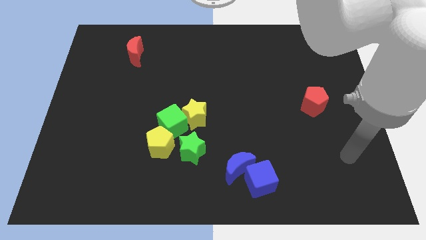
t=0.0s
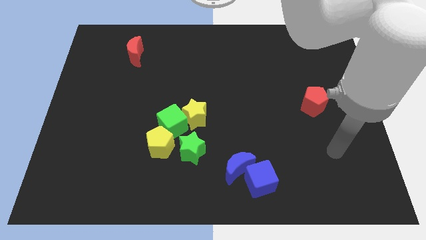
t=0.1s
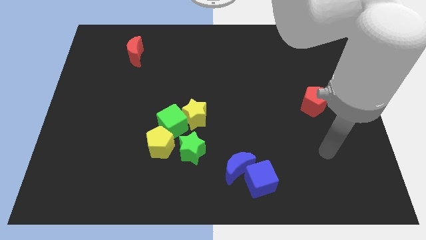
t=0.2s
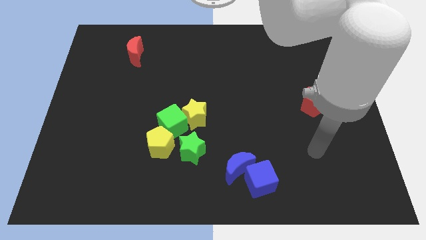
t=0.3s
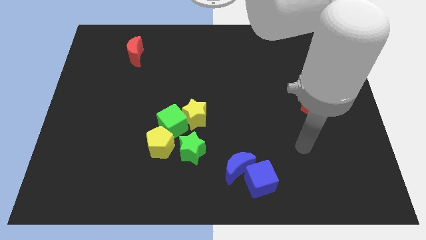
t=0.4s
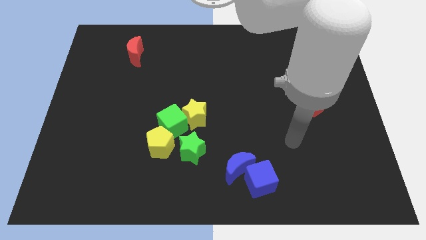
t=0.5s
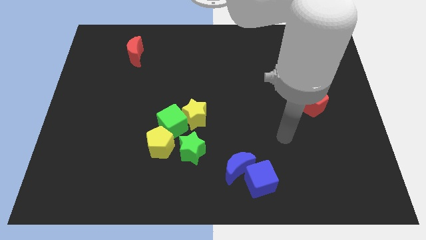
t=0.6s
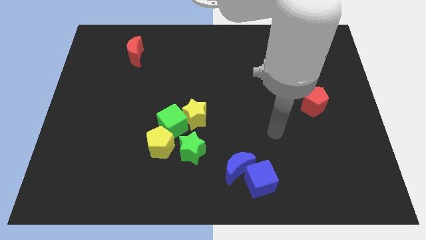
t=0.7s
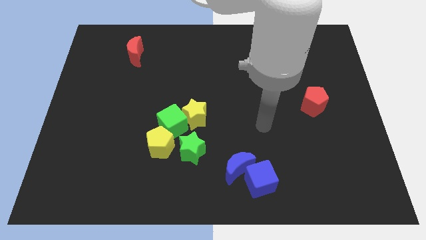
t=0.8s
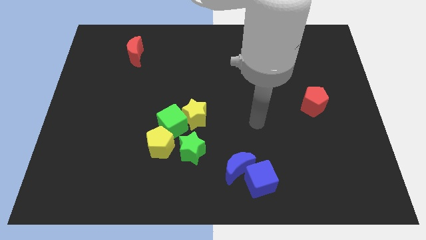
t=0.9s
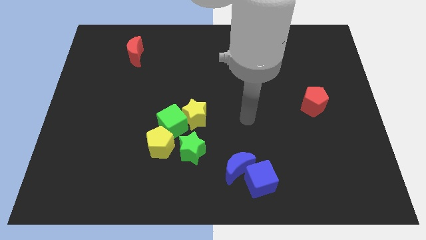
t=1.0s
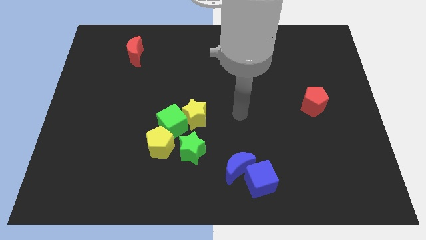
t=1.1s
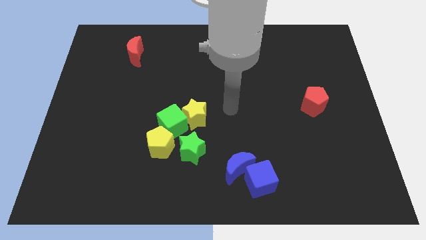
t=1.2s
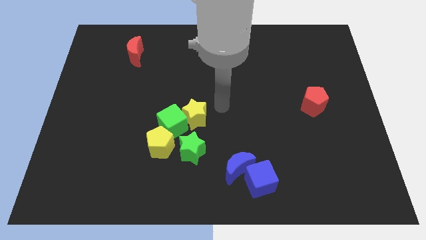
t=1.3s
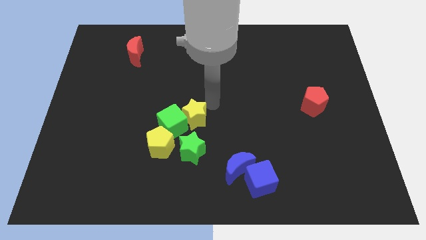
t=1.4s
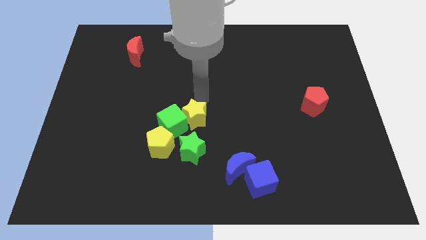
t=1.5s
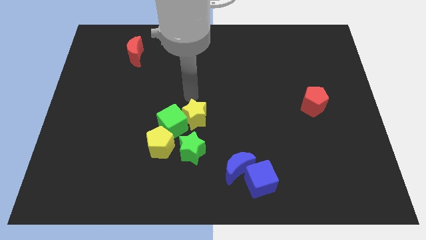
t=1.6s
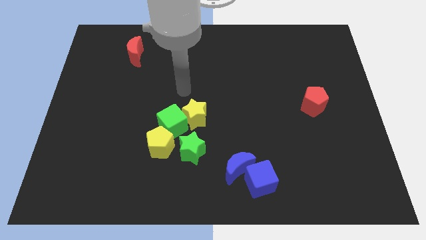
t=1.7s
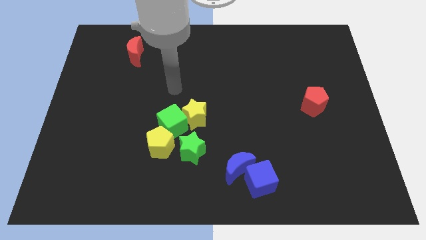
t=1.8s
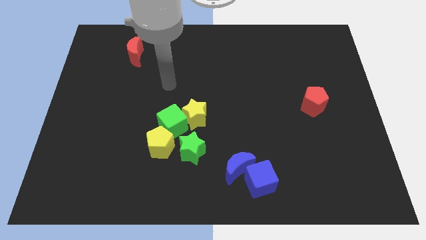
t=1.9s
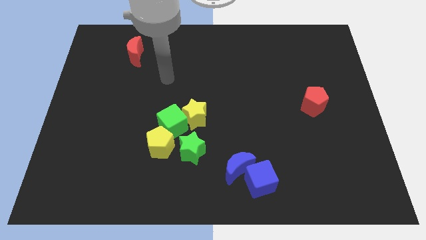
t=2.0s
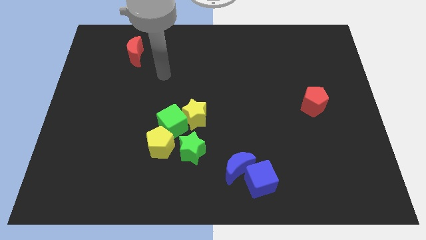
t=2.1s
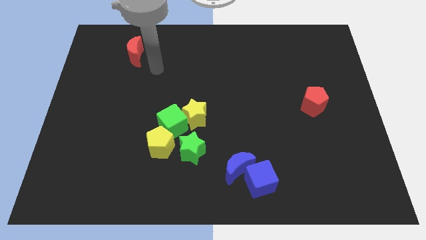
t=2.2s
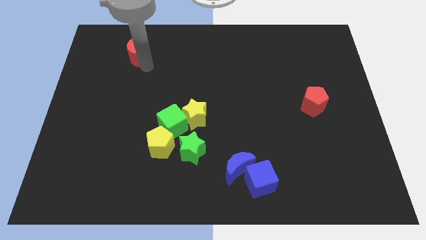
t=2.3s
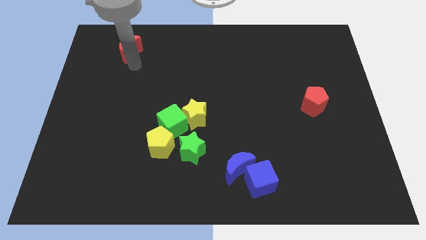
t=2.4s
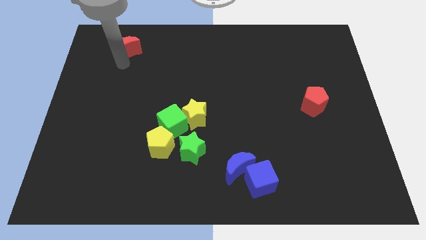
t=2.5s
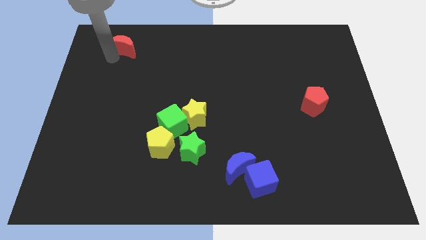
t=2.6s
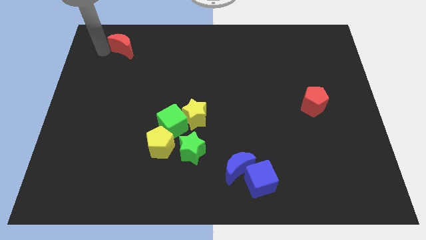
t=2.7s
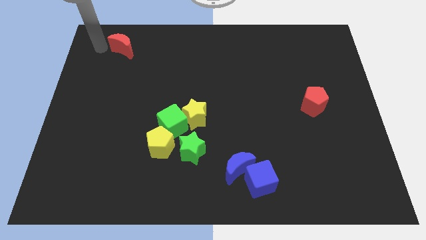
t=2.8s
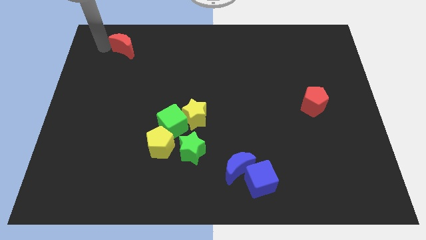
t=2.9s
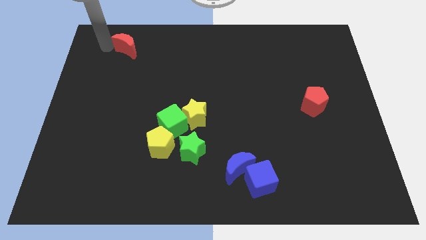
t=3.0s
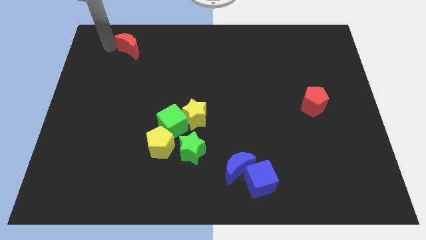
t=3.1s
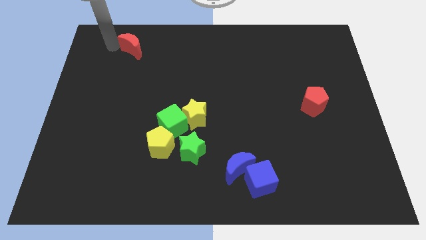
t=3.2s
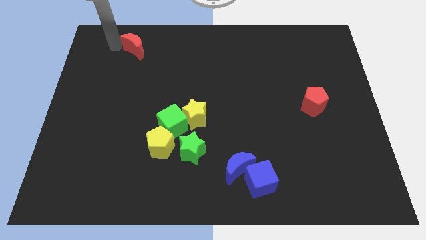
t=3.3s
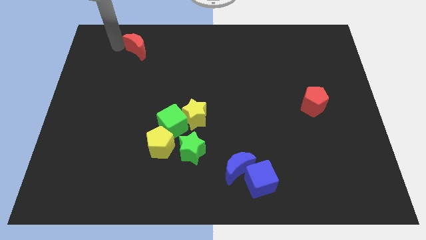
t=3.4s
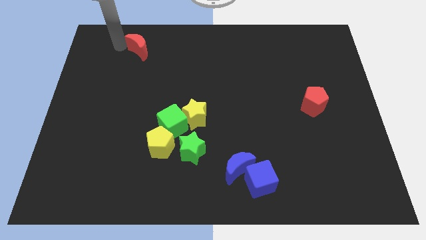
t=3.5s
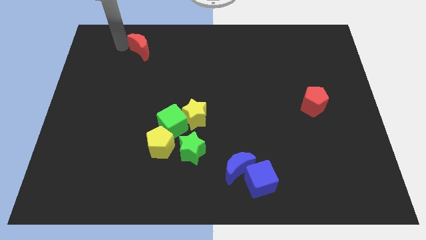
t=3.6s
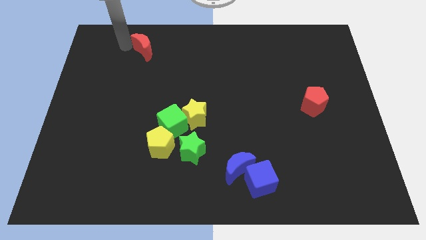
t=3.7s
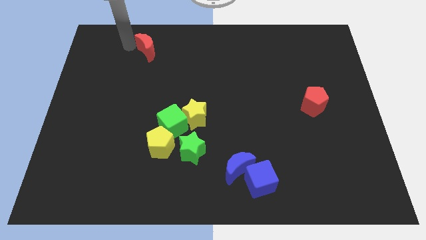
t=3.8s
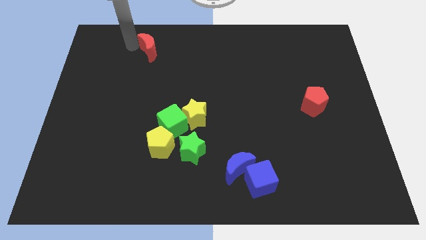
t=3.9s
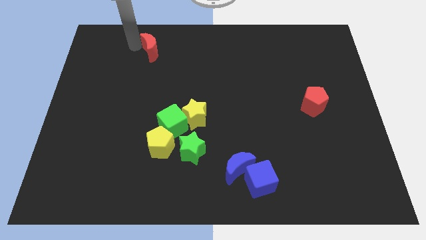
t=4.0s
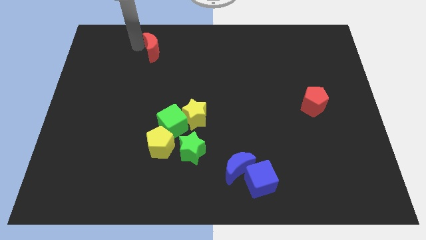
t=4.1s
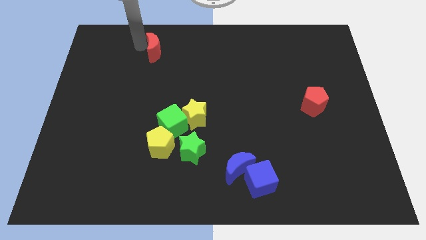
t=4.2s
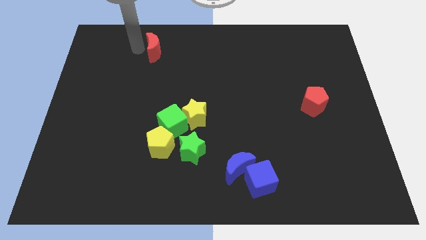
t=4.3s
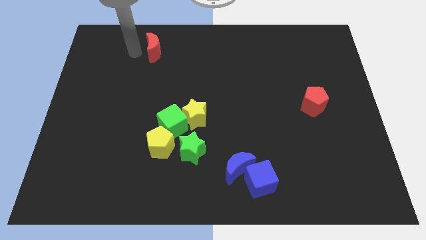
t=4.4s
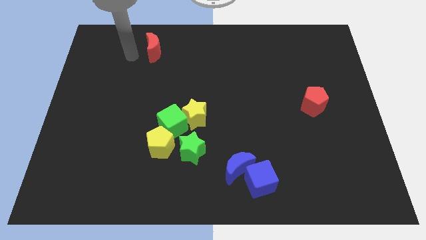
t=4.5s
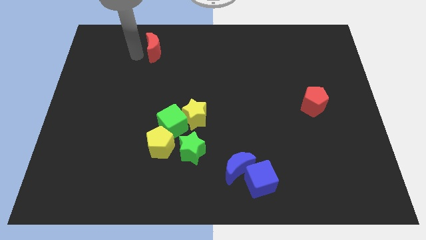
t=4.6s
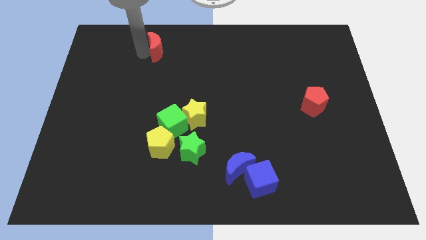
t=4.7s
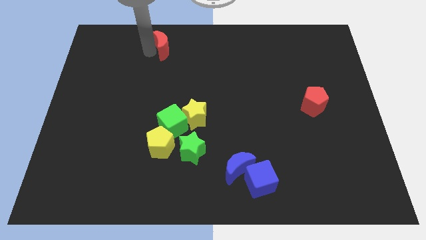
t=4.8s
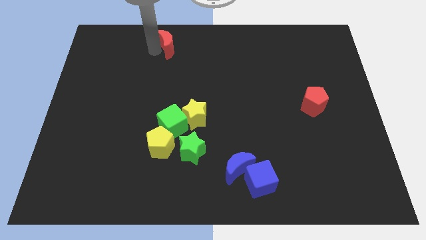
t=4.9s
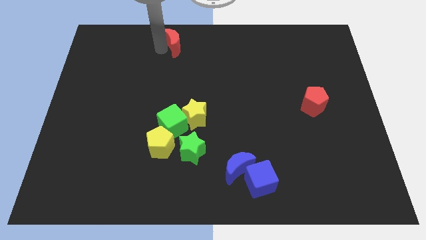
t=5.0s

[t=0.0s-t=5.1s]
slide the red moon to the top

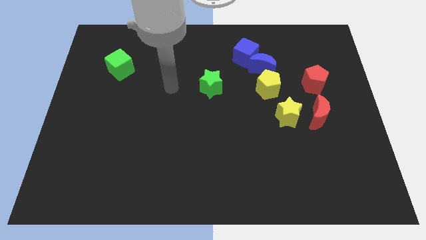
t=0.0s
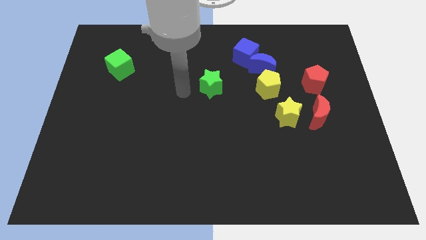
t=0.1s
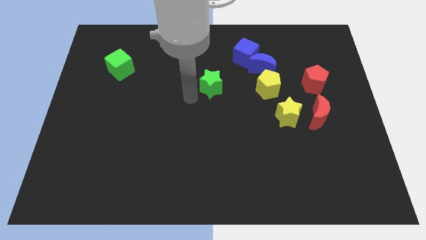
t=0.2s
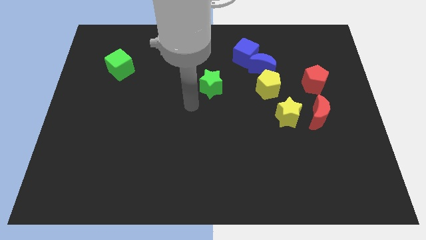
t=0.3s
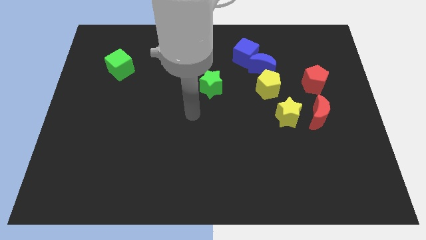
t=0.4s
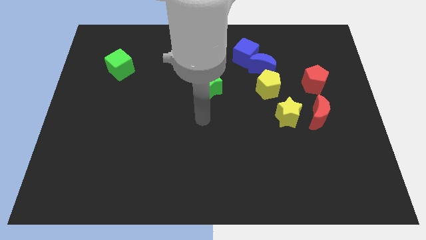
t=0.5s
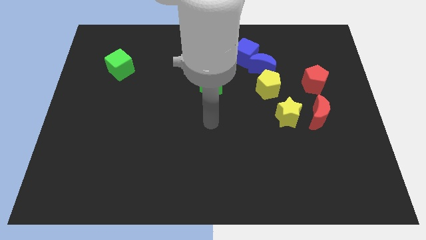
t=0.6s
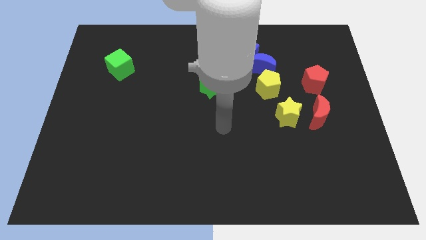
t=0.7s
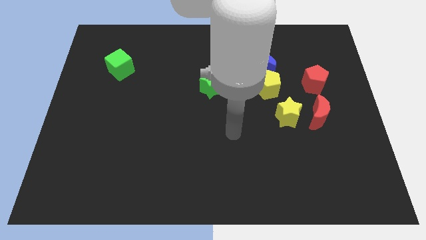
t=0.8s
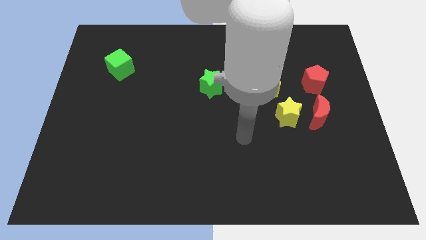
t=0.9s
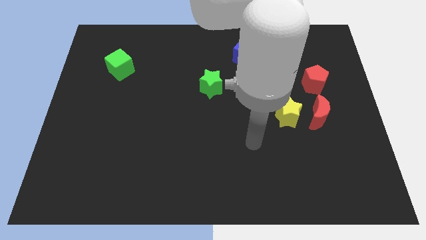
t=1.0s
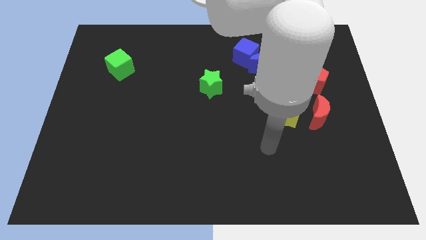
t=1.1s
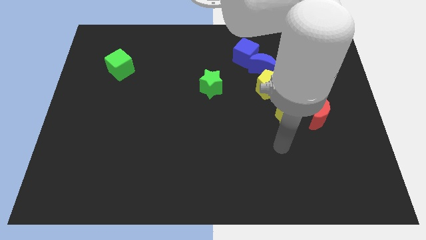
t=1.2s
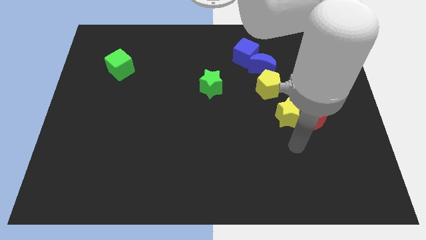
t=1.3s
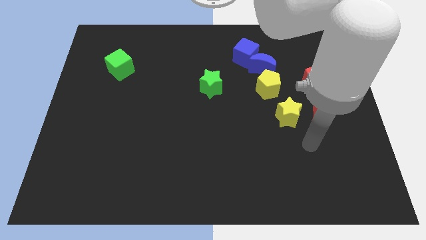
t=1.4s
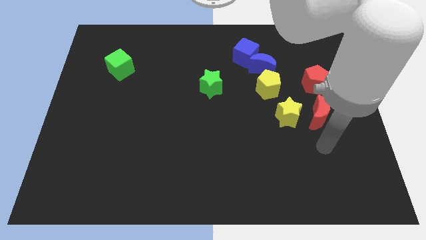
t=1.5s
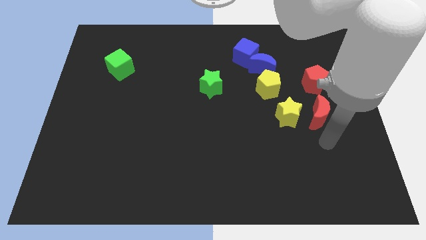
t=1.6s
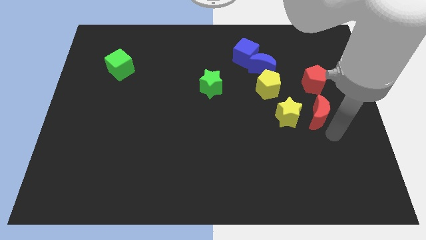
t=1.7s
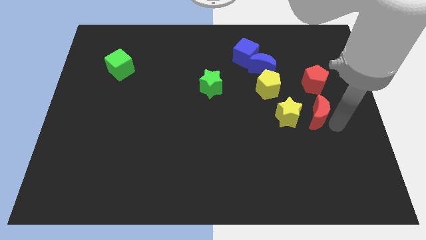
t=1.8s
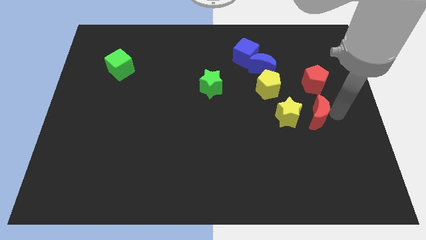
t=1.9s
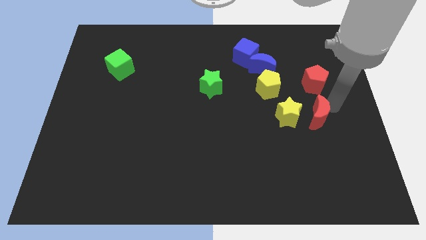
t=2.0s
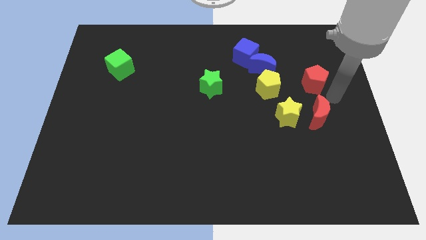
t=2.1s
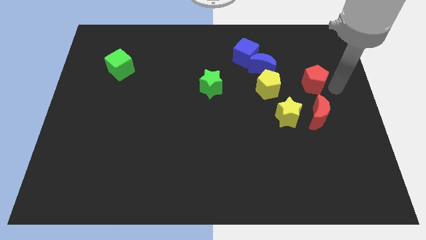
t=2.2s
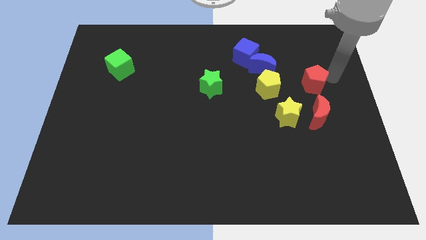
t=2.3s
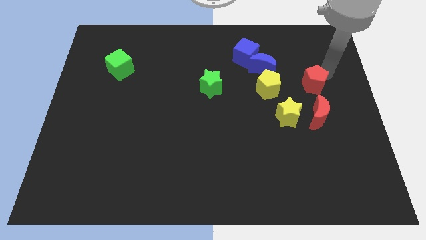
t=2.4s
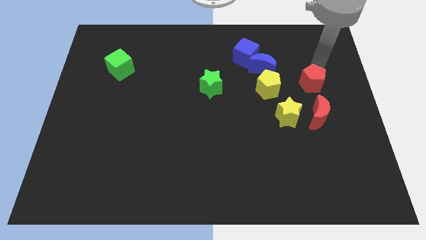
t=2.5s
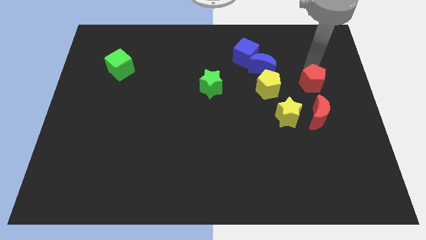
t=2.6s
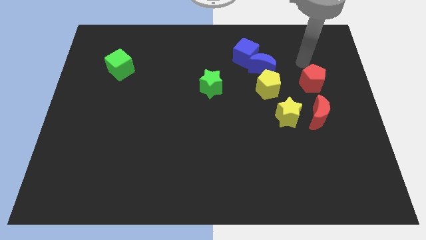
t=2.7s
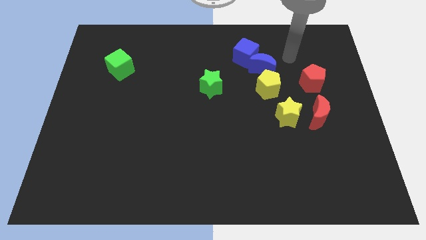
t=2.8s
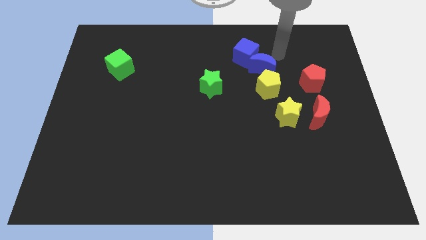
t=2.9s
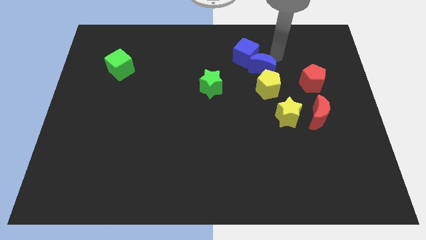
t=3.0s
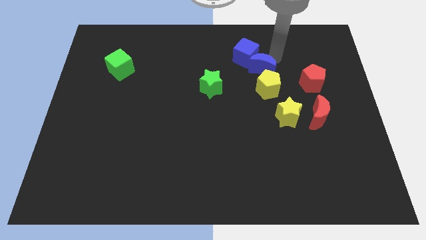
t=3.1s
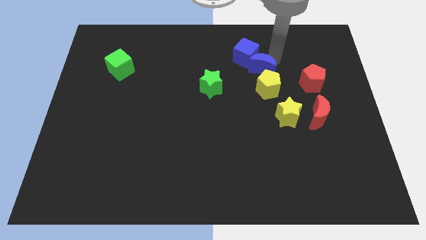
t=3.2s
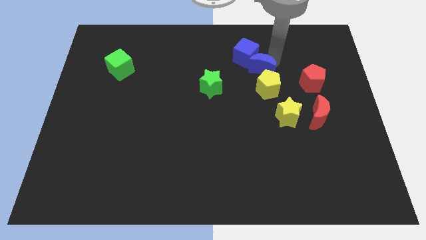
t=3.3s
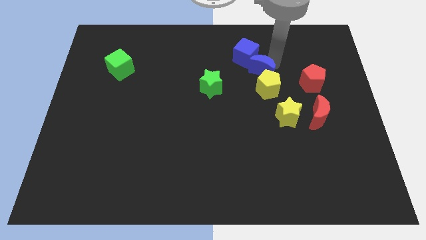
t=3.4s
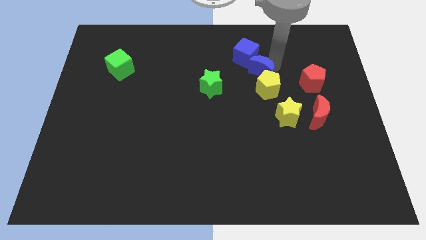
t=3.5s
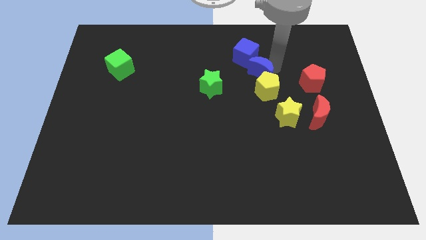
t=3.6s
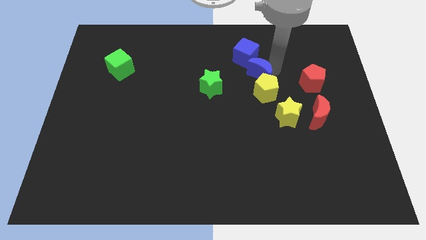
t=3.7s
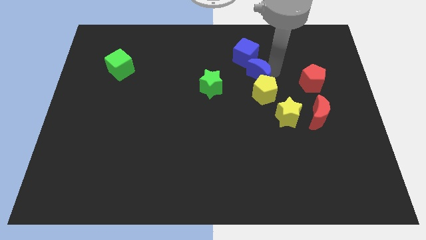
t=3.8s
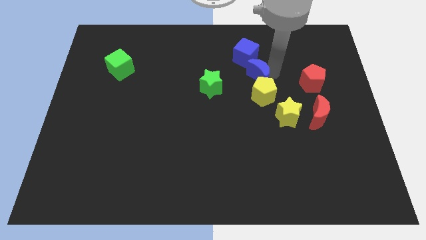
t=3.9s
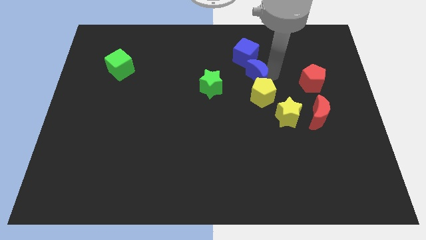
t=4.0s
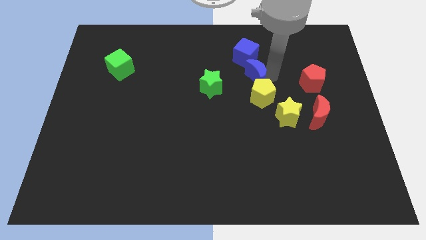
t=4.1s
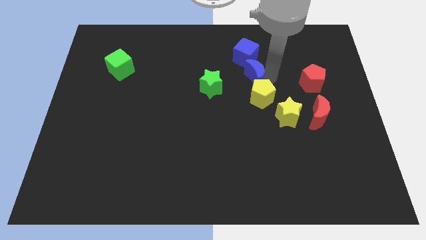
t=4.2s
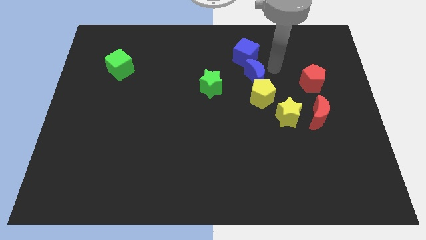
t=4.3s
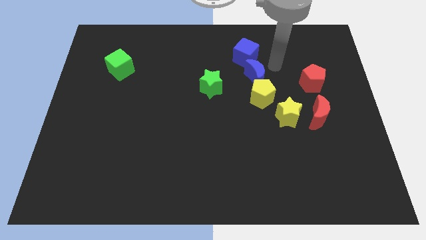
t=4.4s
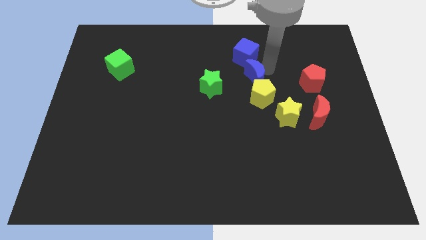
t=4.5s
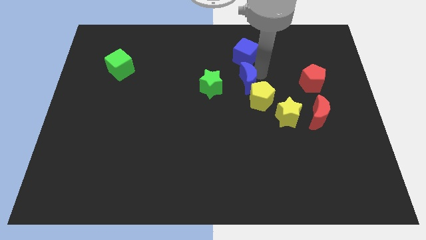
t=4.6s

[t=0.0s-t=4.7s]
put the blue moon to the center
